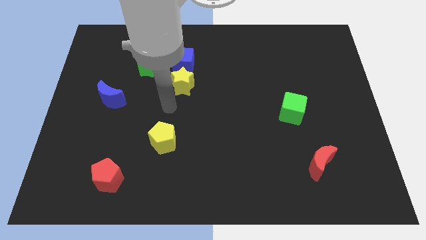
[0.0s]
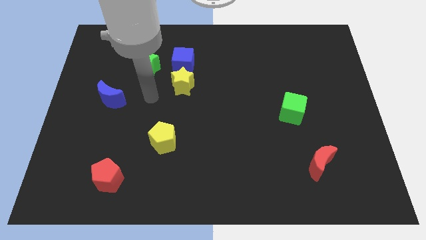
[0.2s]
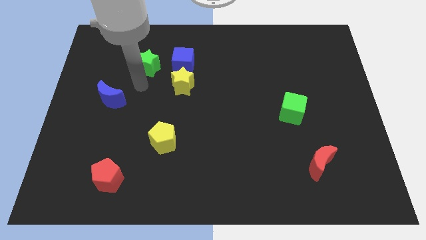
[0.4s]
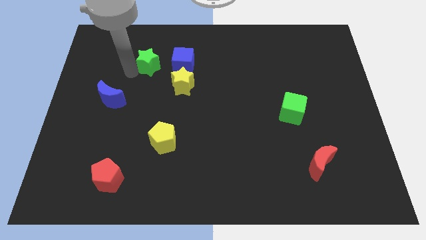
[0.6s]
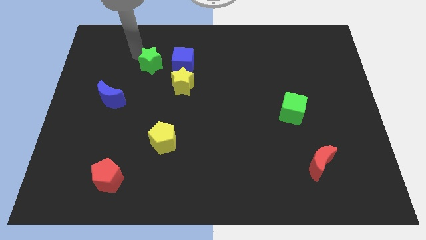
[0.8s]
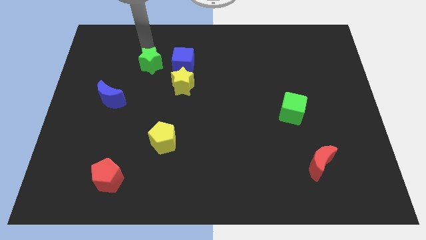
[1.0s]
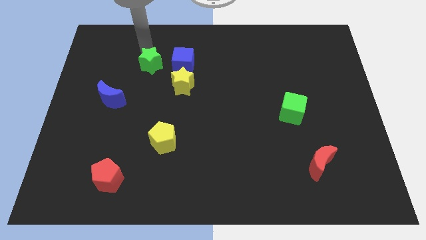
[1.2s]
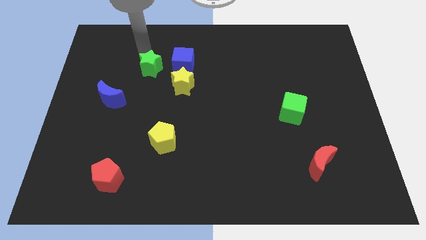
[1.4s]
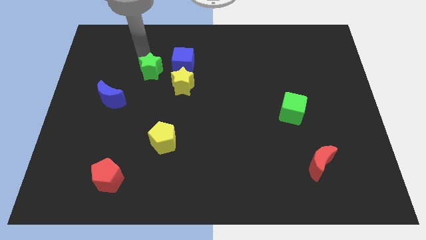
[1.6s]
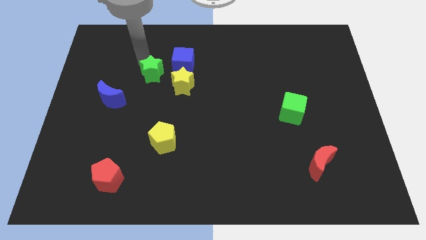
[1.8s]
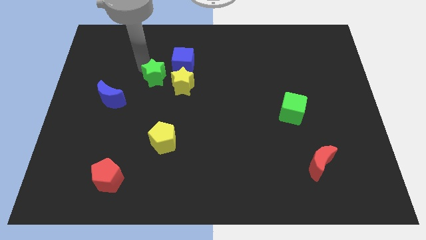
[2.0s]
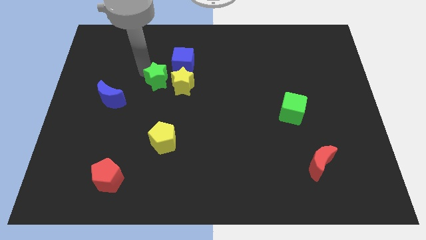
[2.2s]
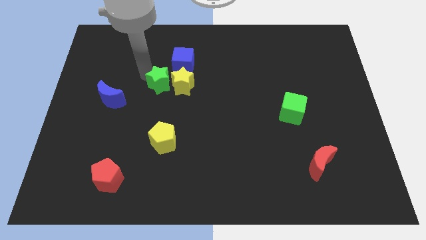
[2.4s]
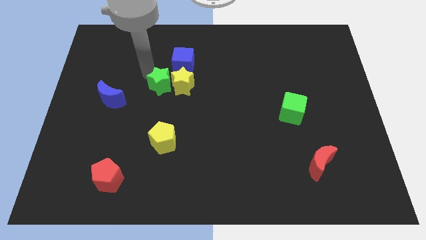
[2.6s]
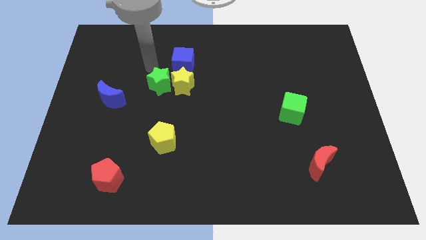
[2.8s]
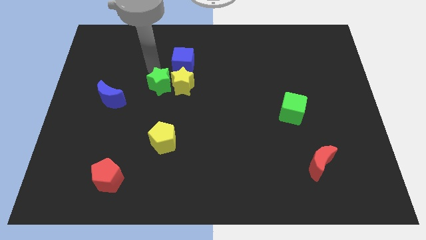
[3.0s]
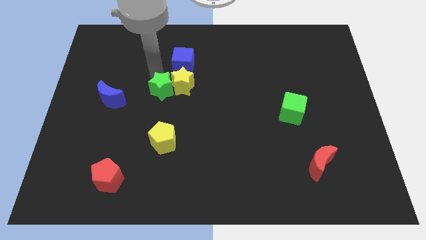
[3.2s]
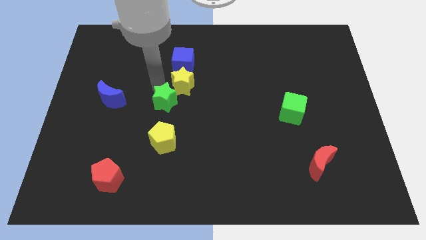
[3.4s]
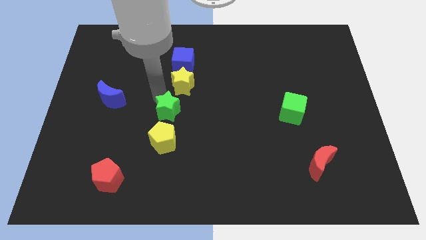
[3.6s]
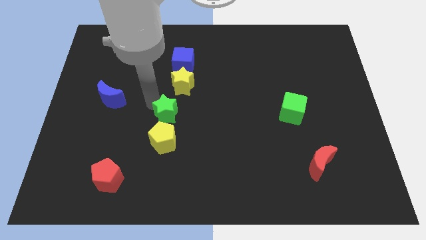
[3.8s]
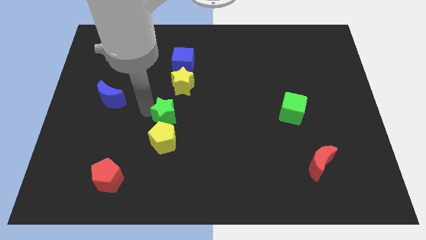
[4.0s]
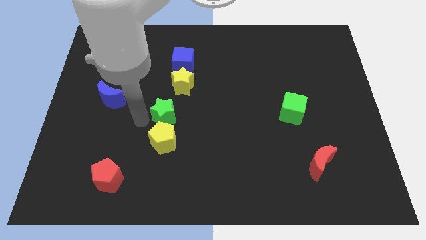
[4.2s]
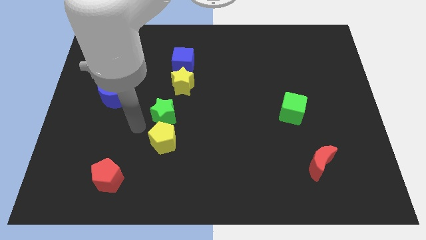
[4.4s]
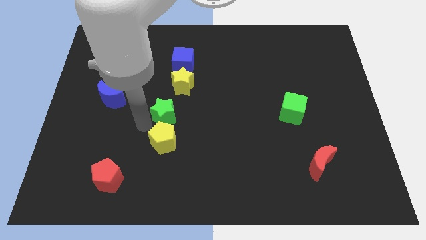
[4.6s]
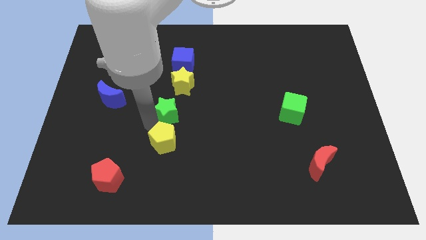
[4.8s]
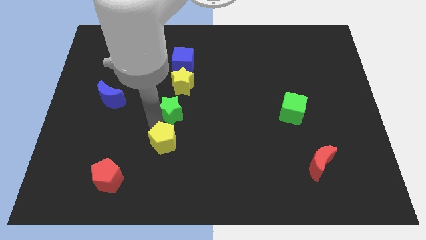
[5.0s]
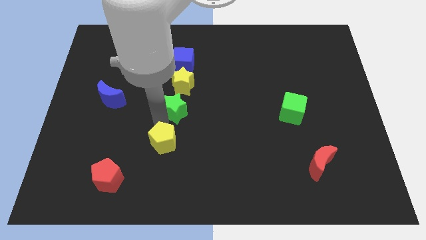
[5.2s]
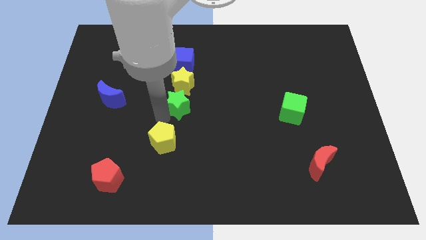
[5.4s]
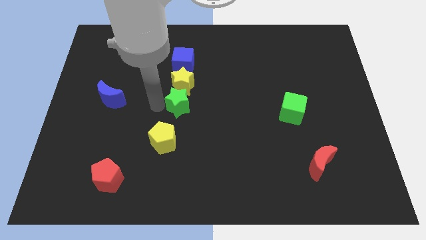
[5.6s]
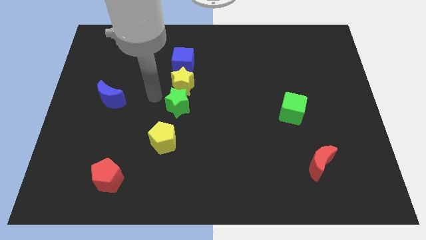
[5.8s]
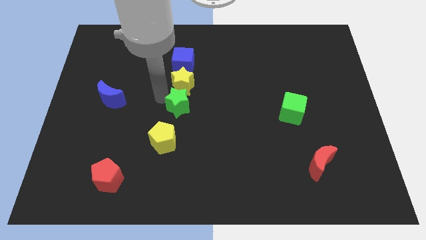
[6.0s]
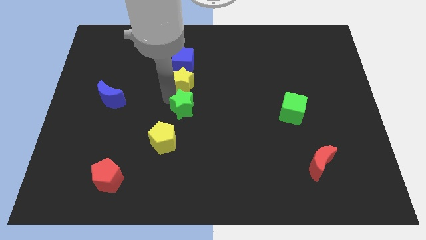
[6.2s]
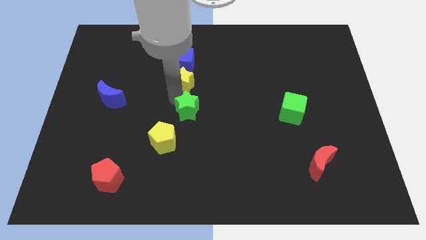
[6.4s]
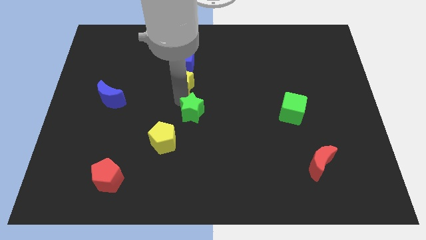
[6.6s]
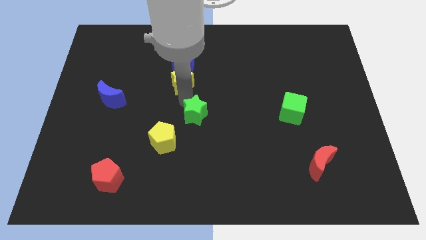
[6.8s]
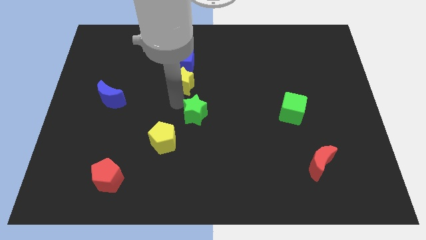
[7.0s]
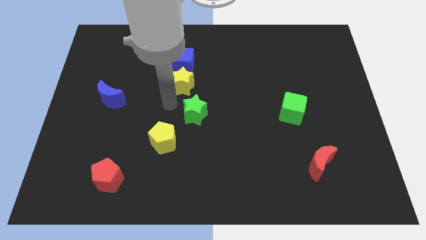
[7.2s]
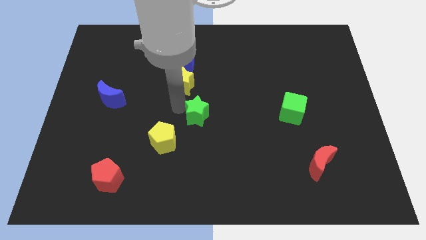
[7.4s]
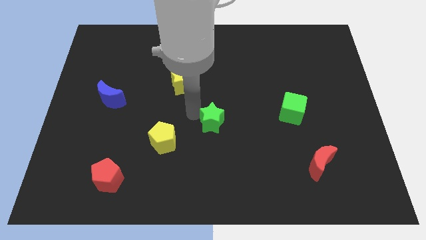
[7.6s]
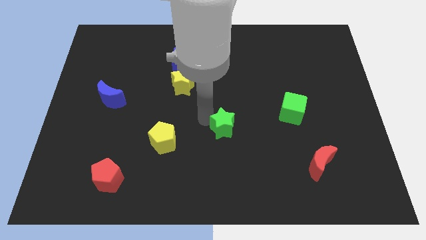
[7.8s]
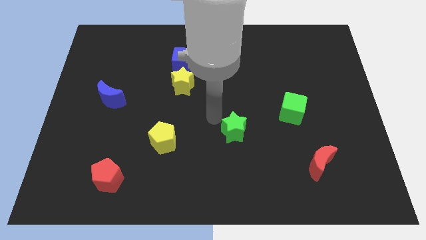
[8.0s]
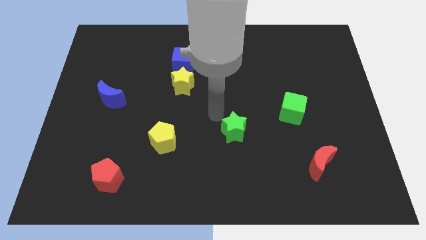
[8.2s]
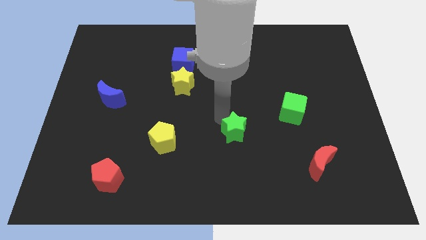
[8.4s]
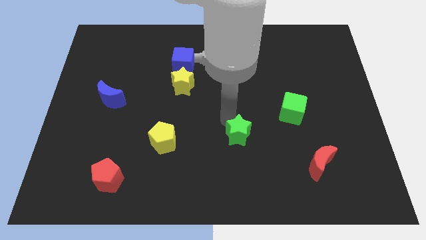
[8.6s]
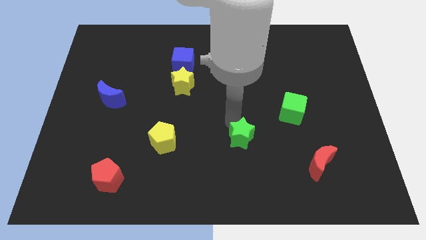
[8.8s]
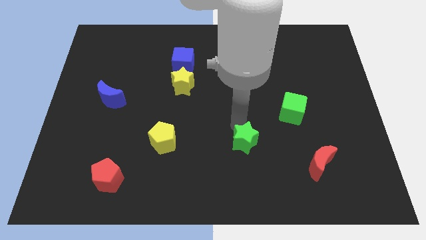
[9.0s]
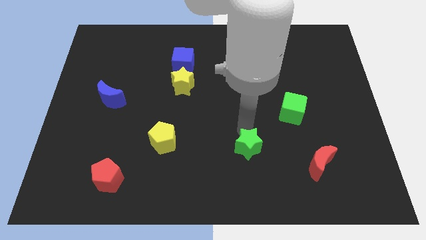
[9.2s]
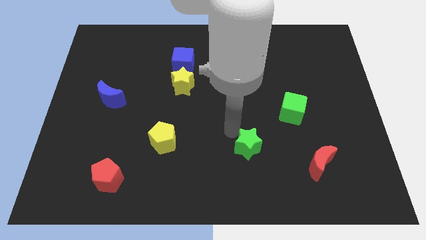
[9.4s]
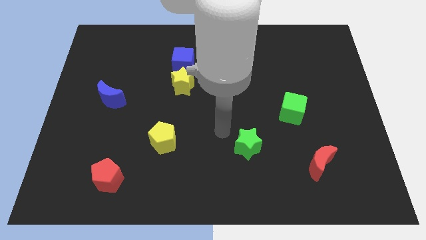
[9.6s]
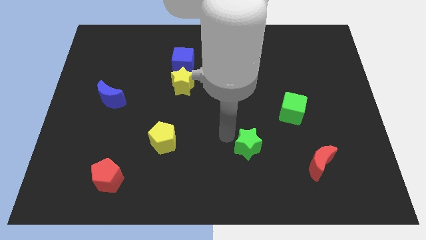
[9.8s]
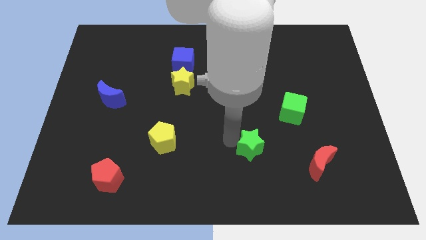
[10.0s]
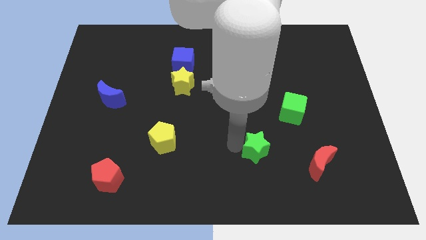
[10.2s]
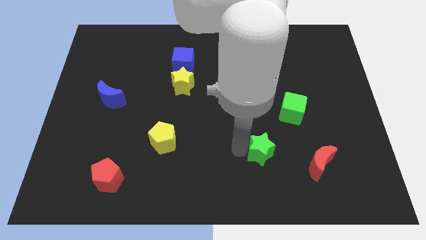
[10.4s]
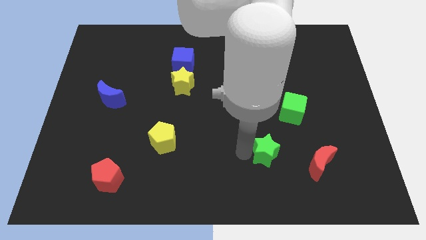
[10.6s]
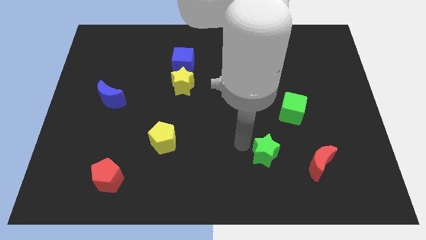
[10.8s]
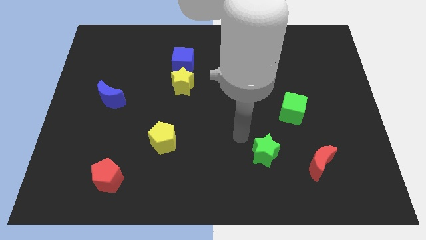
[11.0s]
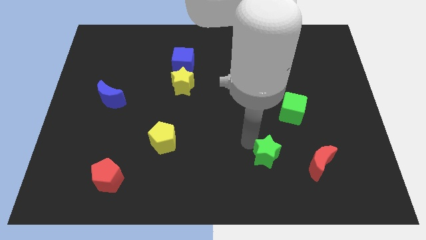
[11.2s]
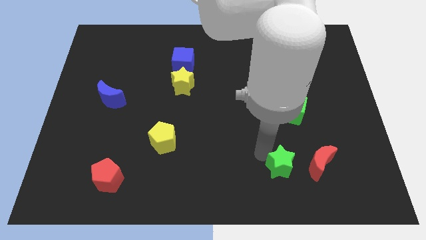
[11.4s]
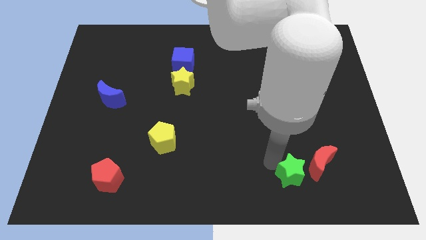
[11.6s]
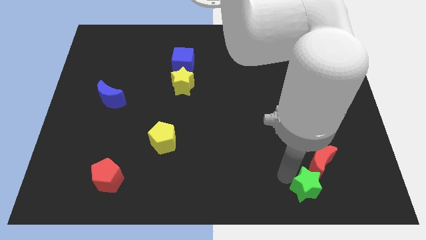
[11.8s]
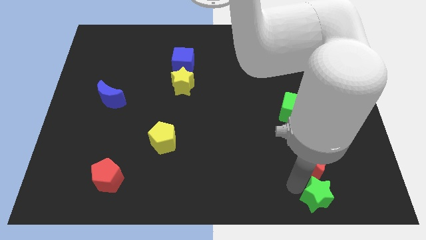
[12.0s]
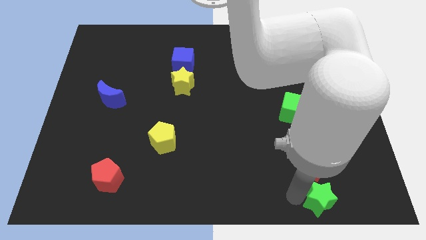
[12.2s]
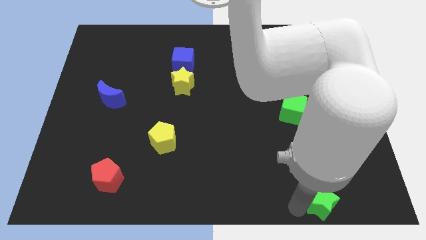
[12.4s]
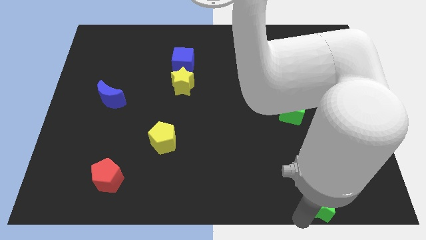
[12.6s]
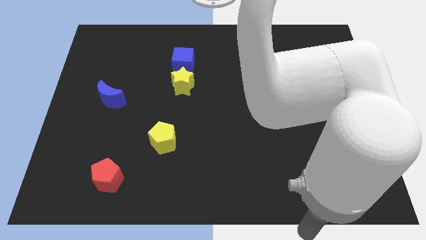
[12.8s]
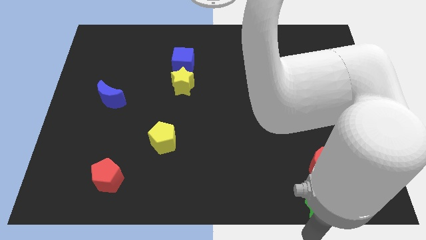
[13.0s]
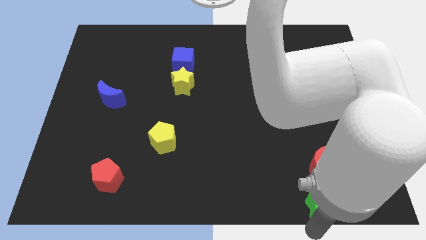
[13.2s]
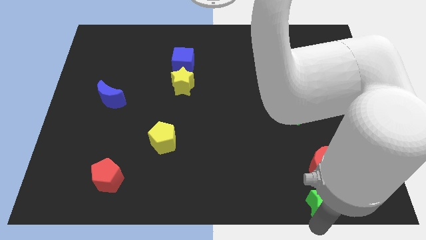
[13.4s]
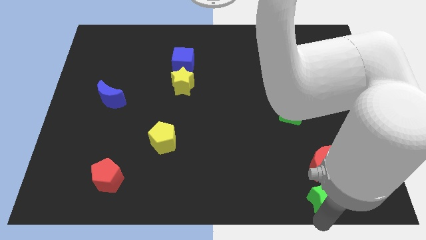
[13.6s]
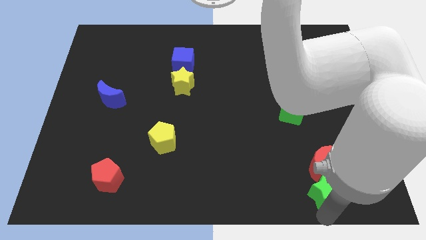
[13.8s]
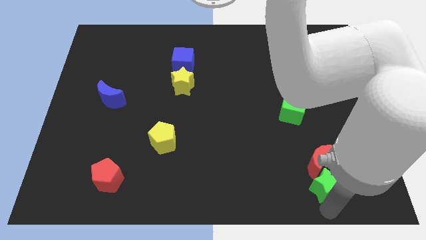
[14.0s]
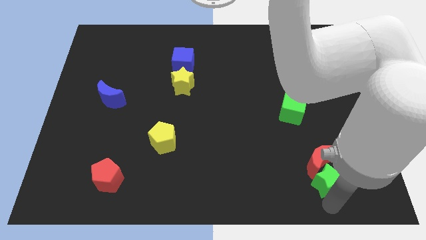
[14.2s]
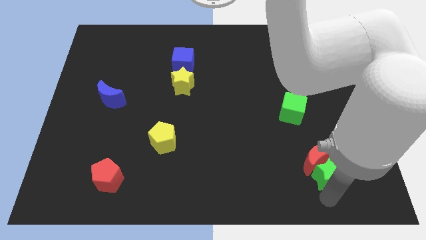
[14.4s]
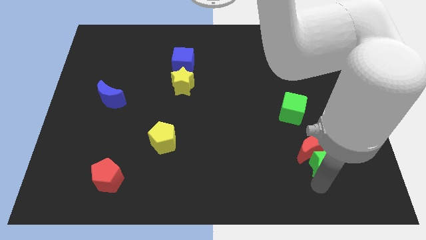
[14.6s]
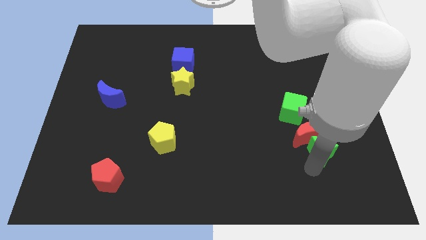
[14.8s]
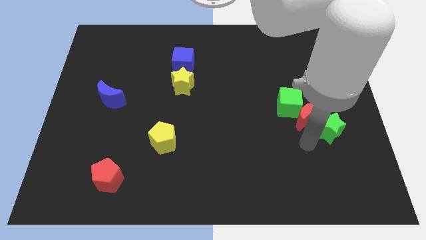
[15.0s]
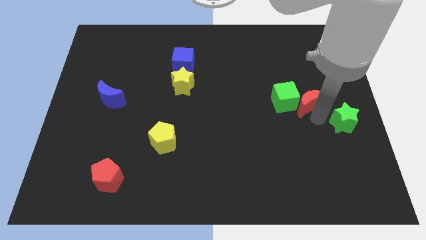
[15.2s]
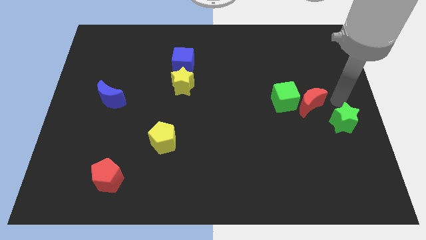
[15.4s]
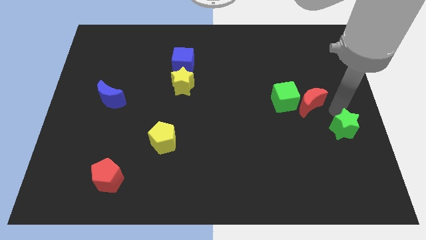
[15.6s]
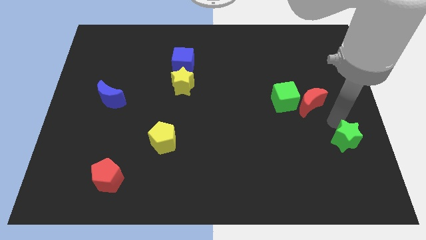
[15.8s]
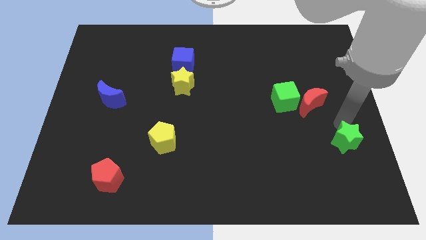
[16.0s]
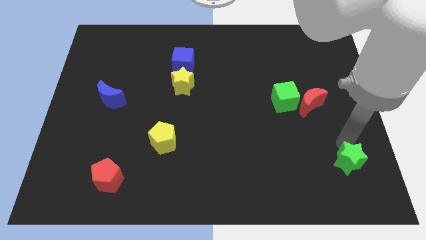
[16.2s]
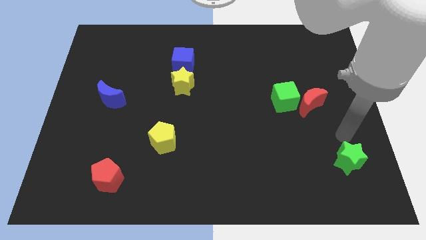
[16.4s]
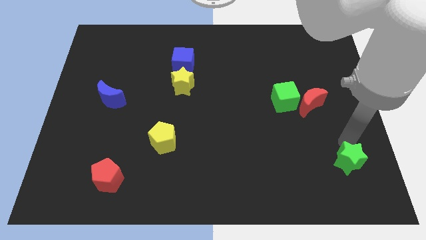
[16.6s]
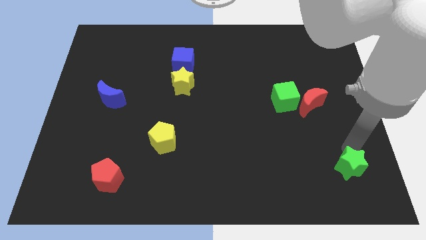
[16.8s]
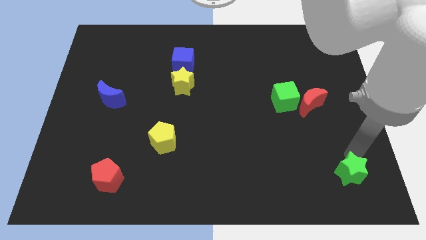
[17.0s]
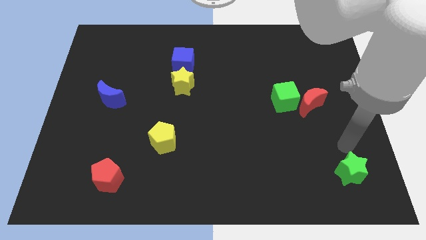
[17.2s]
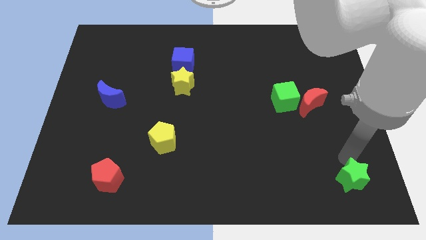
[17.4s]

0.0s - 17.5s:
put the green star to the bottom right
